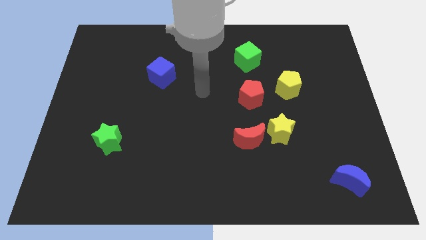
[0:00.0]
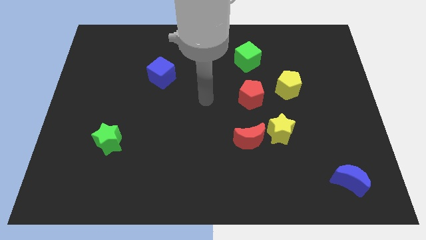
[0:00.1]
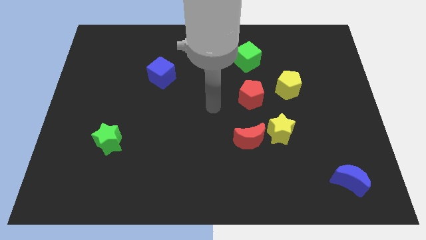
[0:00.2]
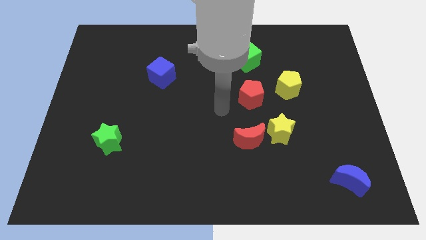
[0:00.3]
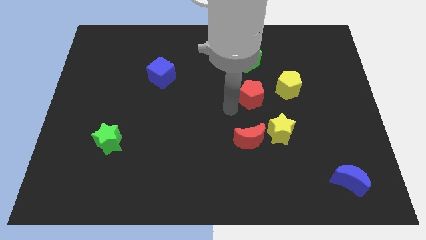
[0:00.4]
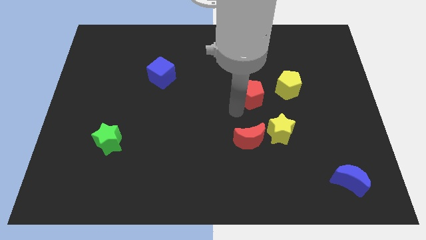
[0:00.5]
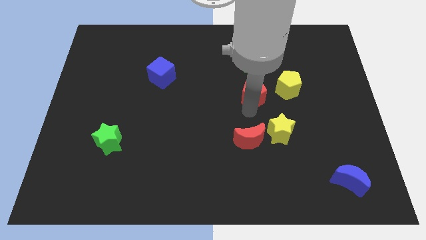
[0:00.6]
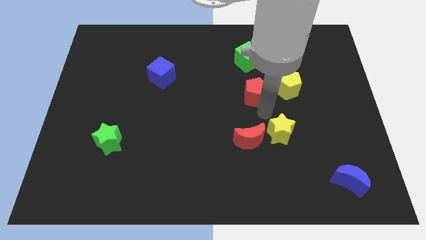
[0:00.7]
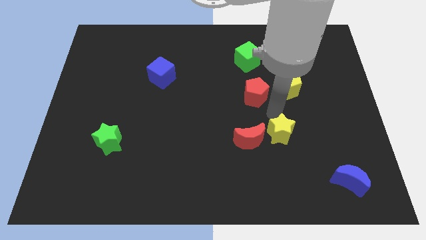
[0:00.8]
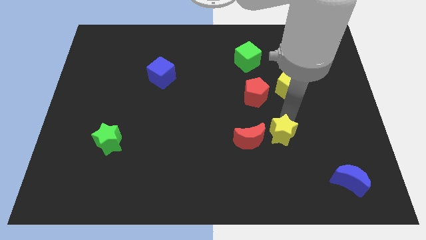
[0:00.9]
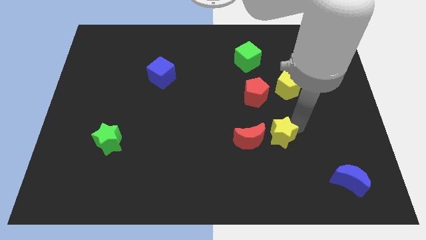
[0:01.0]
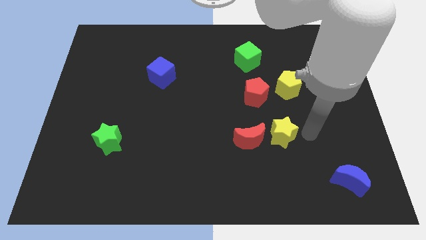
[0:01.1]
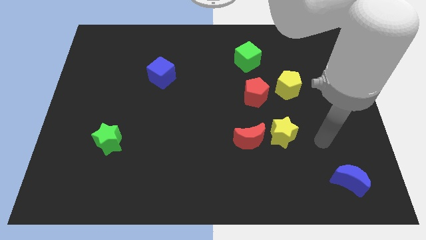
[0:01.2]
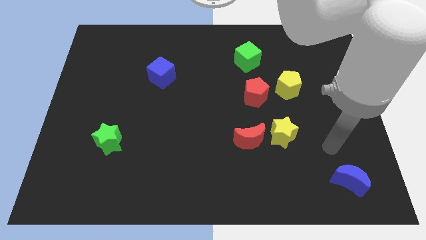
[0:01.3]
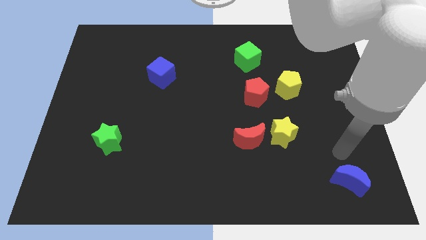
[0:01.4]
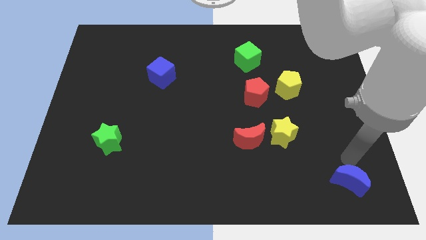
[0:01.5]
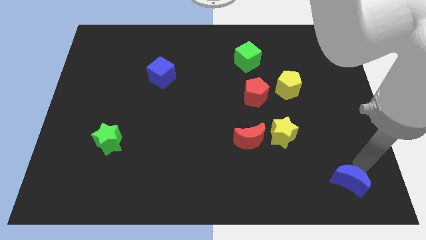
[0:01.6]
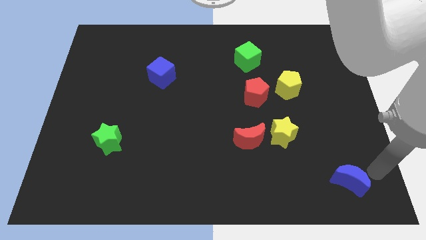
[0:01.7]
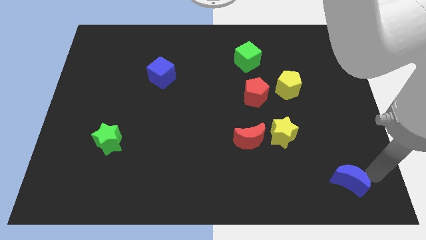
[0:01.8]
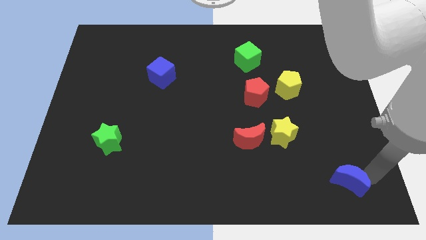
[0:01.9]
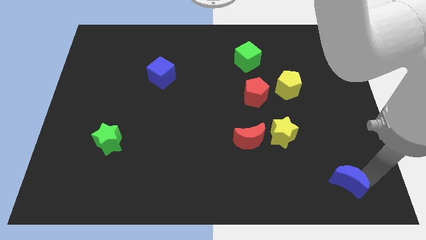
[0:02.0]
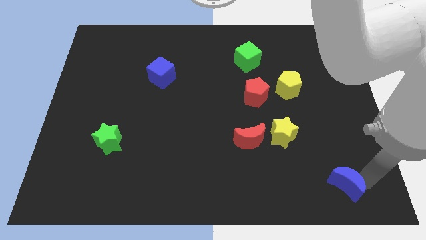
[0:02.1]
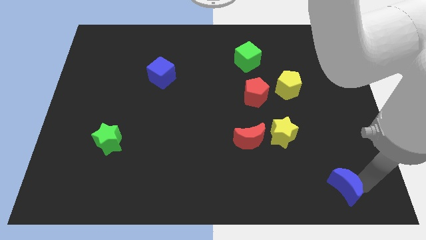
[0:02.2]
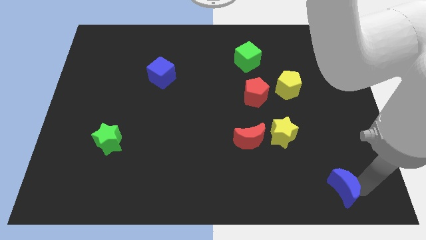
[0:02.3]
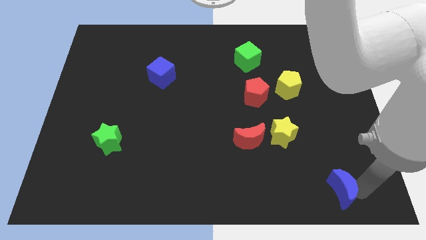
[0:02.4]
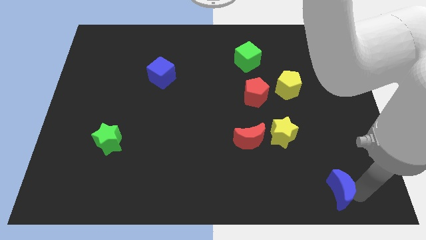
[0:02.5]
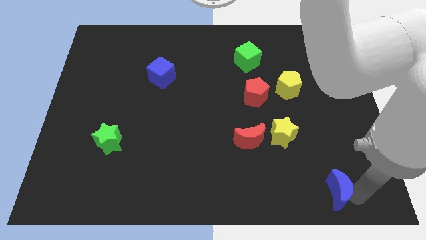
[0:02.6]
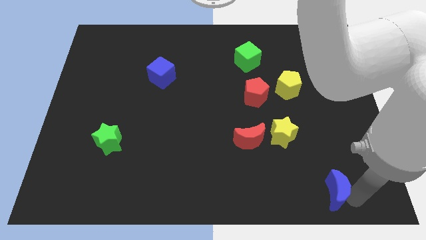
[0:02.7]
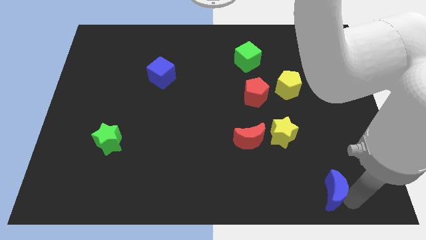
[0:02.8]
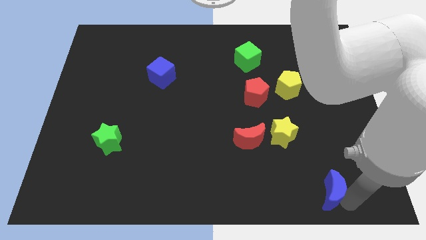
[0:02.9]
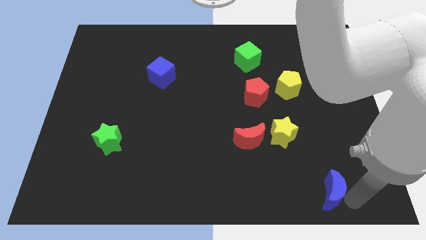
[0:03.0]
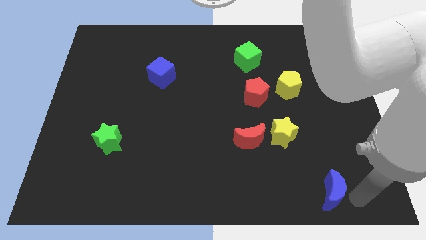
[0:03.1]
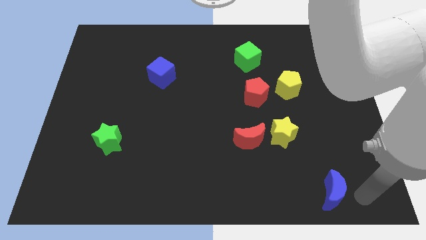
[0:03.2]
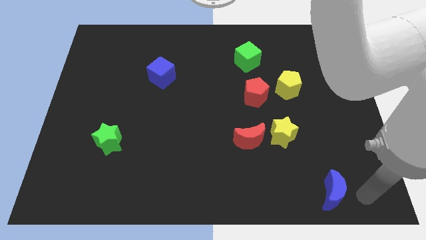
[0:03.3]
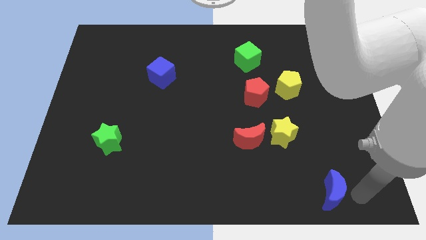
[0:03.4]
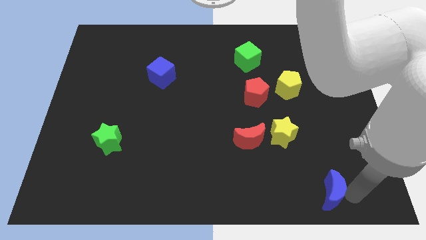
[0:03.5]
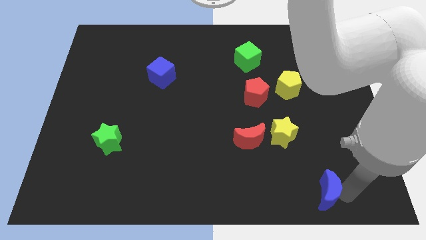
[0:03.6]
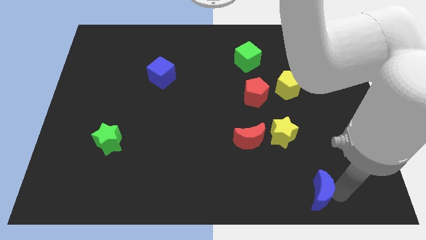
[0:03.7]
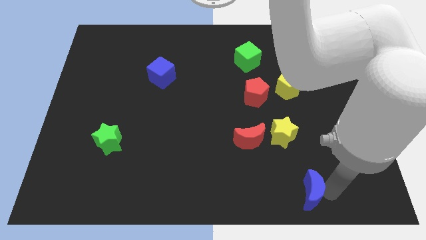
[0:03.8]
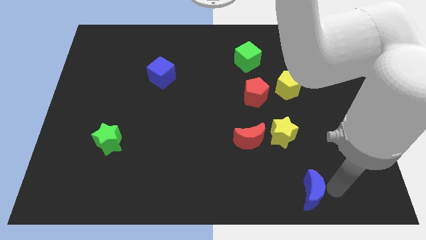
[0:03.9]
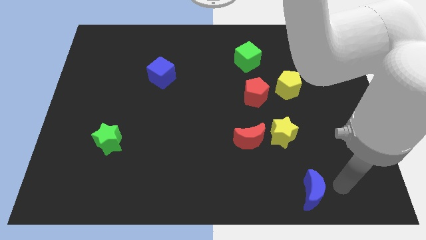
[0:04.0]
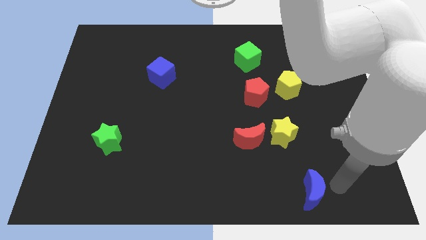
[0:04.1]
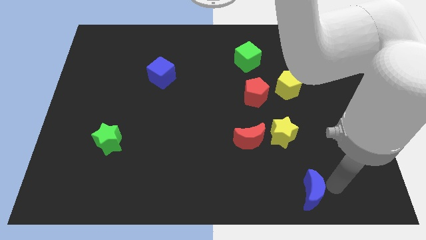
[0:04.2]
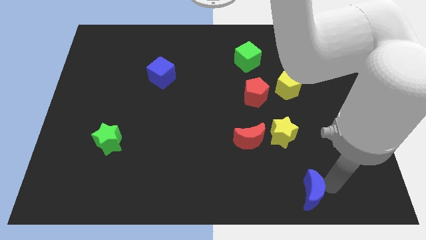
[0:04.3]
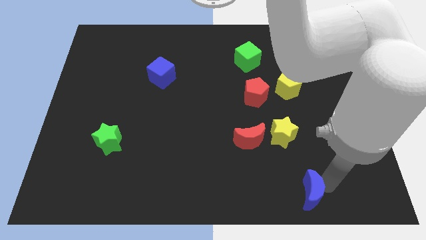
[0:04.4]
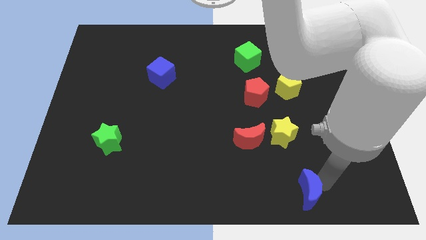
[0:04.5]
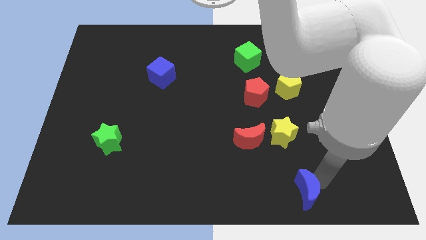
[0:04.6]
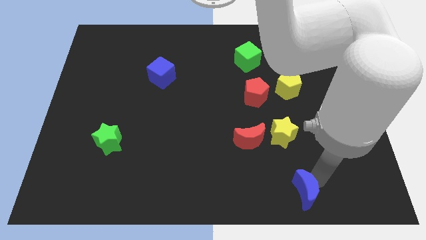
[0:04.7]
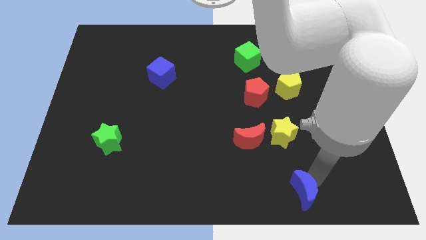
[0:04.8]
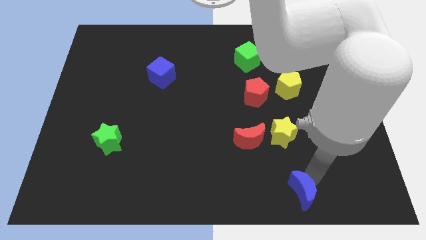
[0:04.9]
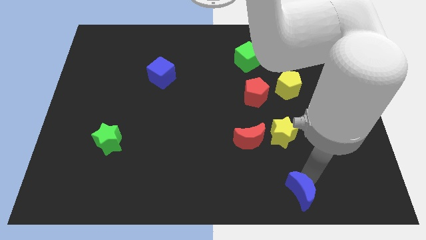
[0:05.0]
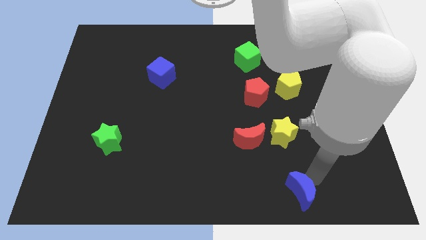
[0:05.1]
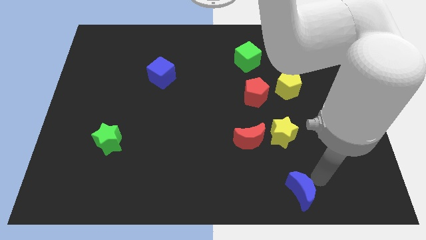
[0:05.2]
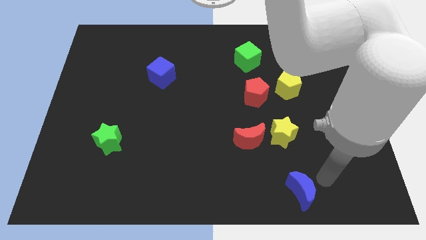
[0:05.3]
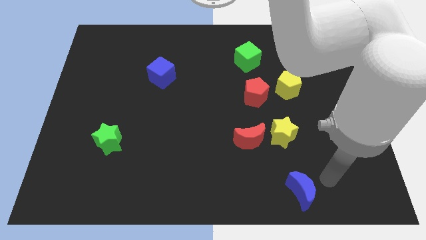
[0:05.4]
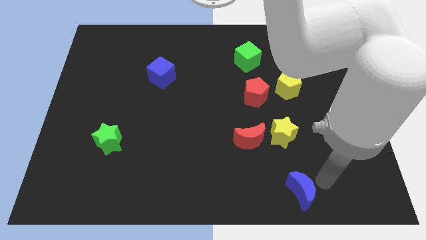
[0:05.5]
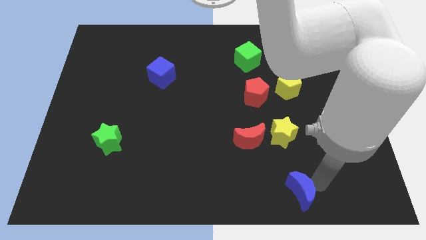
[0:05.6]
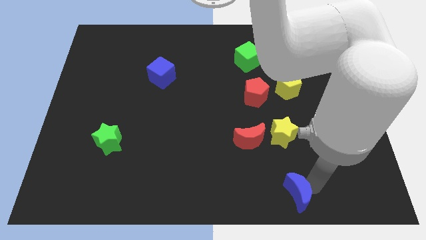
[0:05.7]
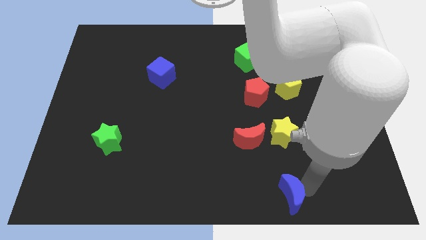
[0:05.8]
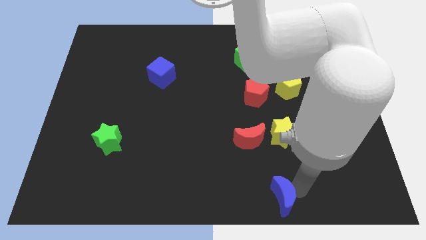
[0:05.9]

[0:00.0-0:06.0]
put the blue moon to the bottom

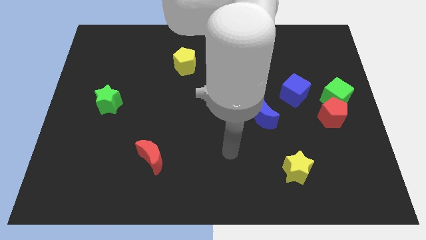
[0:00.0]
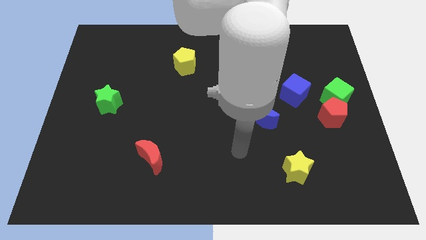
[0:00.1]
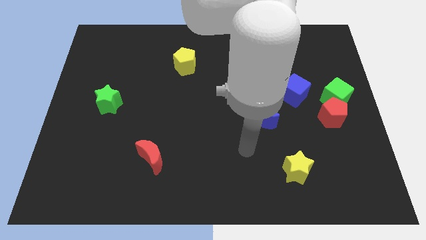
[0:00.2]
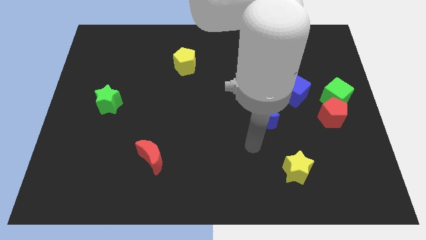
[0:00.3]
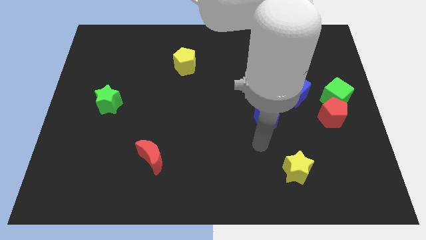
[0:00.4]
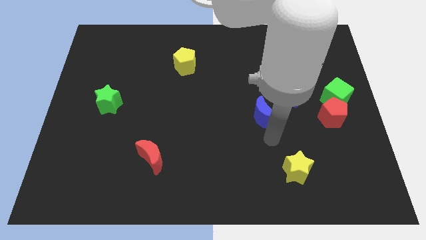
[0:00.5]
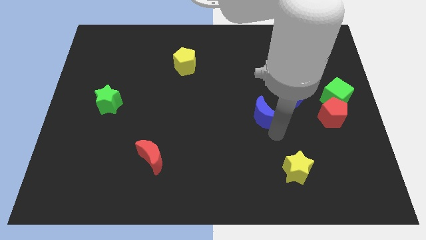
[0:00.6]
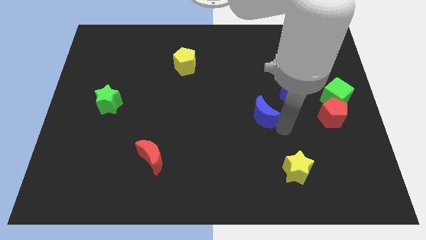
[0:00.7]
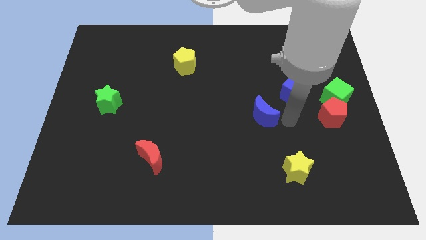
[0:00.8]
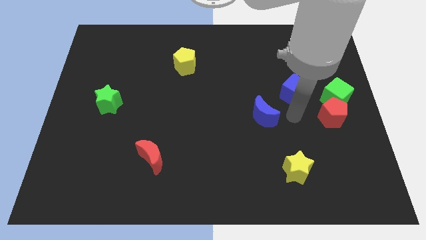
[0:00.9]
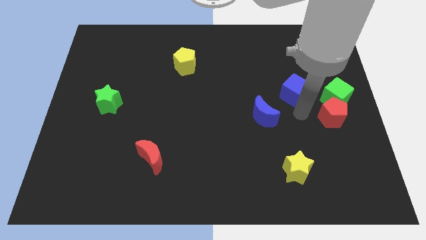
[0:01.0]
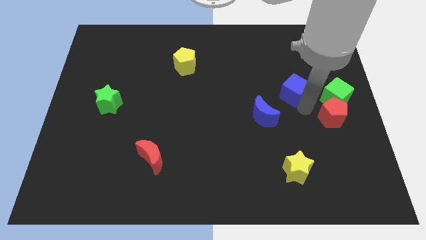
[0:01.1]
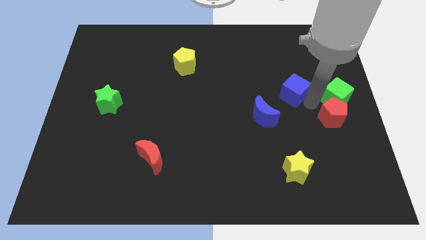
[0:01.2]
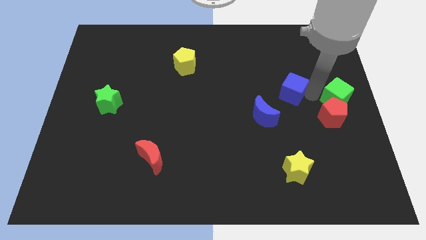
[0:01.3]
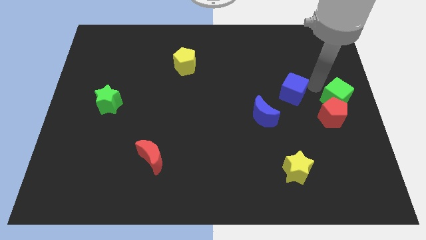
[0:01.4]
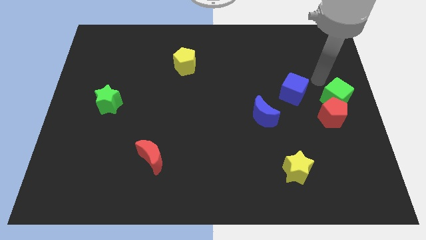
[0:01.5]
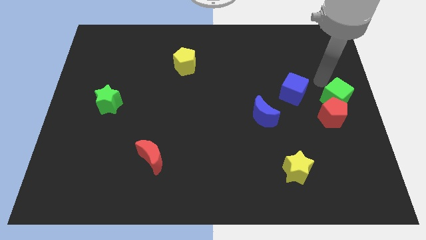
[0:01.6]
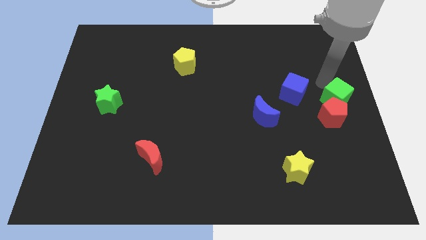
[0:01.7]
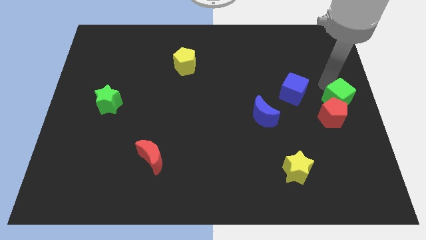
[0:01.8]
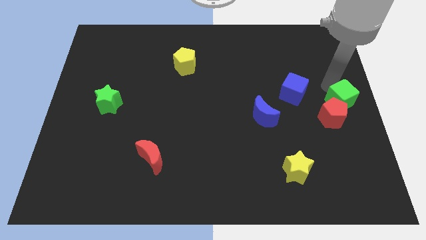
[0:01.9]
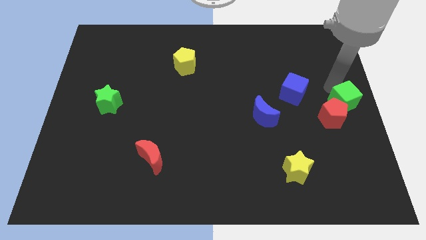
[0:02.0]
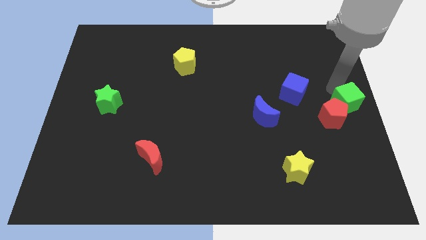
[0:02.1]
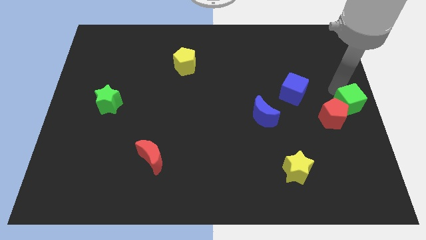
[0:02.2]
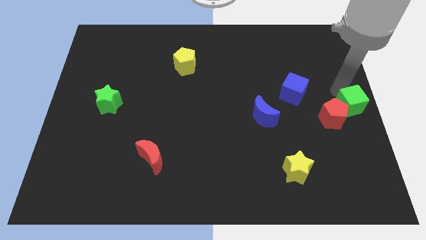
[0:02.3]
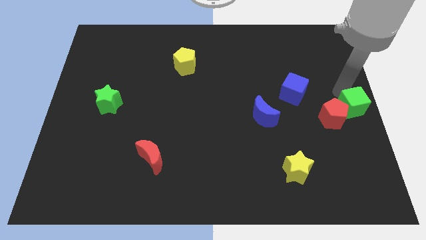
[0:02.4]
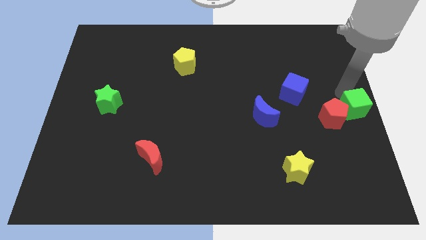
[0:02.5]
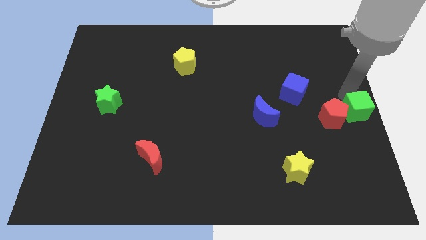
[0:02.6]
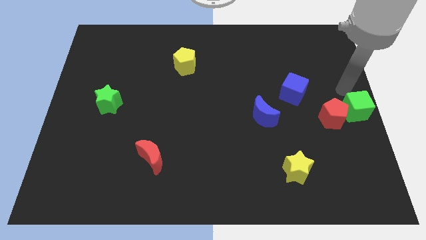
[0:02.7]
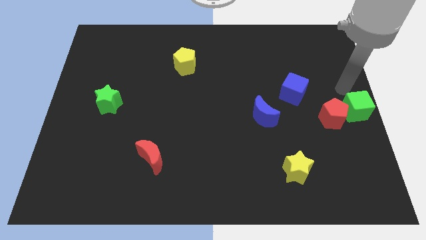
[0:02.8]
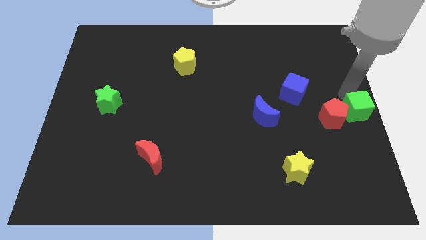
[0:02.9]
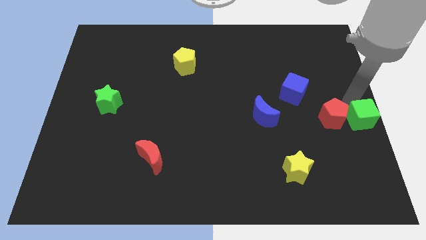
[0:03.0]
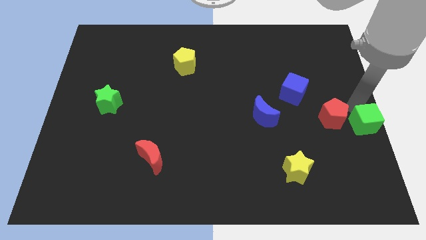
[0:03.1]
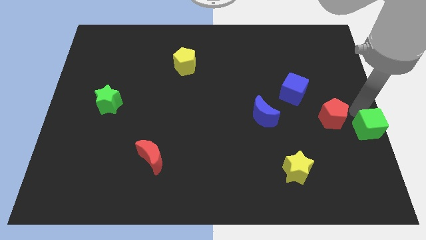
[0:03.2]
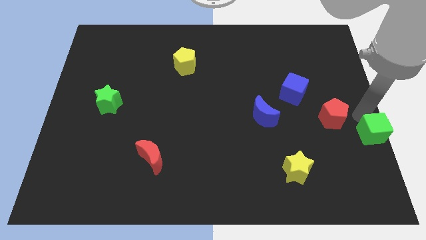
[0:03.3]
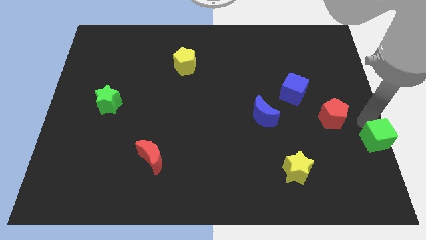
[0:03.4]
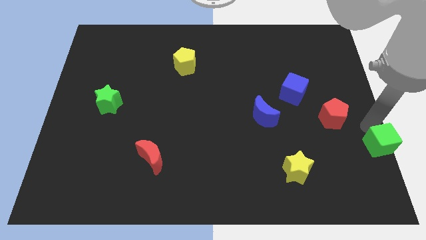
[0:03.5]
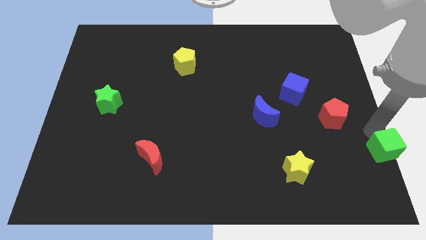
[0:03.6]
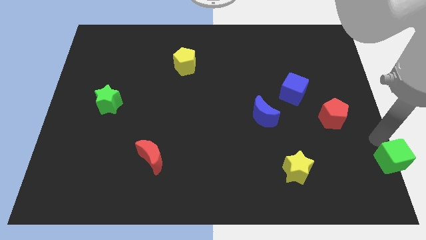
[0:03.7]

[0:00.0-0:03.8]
slide the green cube to the bottom right of the board
